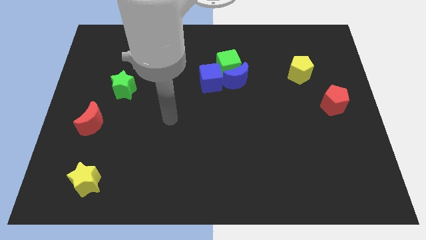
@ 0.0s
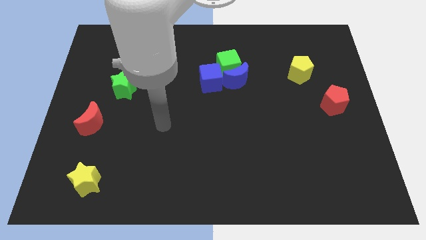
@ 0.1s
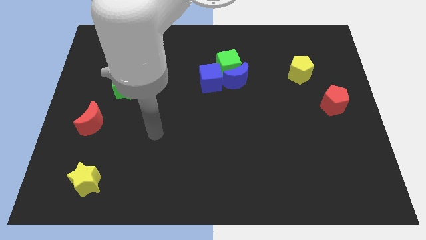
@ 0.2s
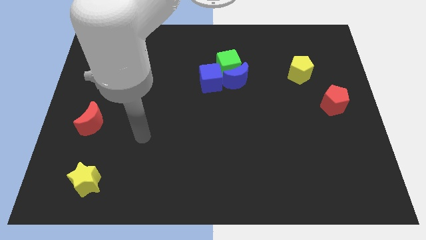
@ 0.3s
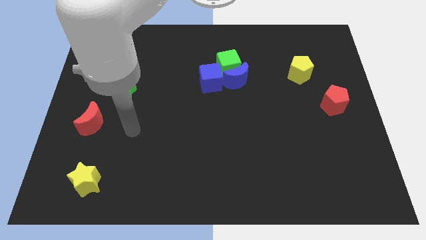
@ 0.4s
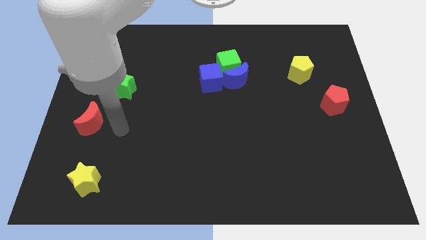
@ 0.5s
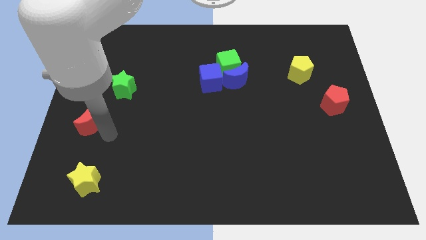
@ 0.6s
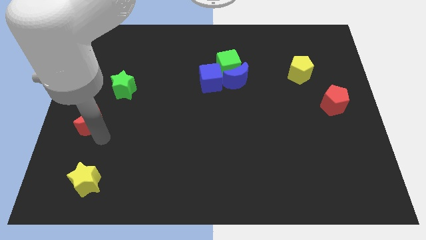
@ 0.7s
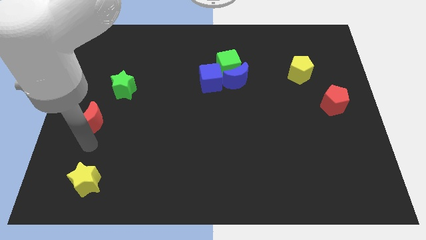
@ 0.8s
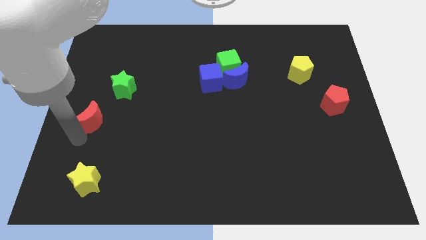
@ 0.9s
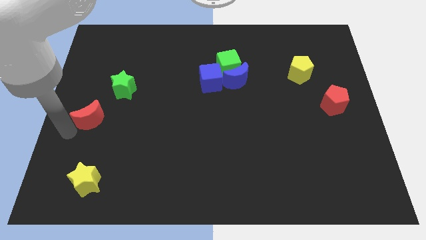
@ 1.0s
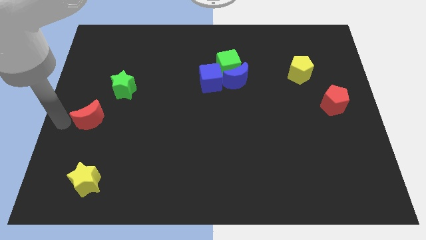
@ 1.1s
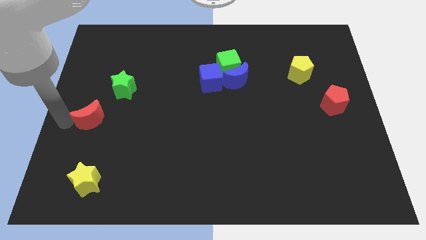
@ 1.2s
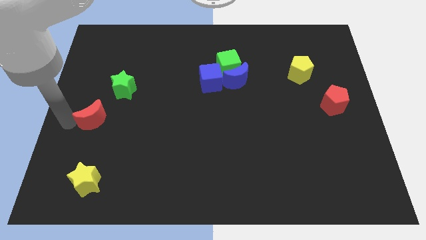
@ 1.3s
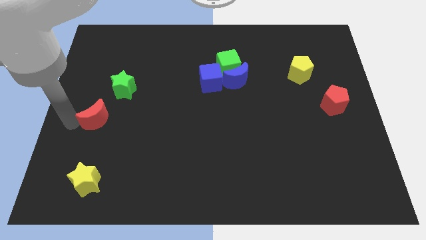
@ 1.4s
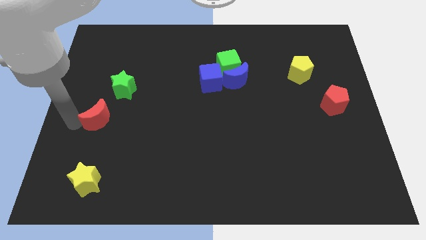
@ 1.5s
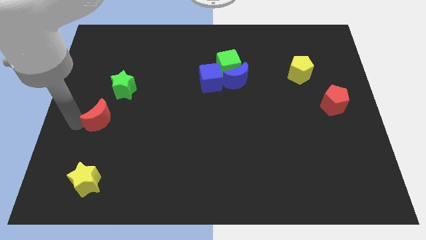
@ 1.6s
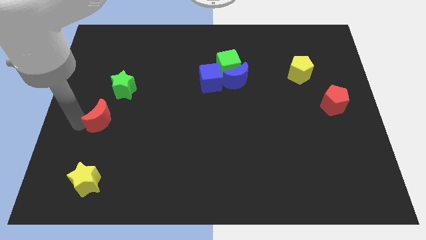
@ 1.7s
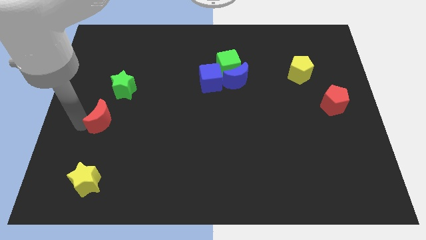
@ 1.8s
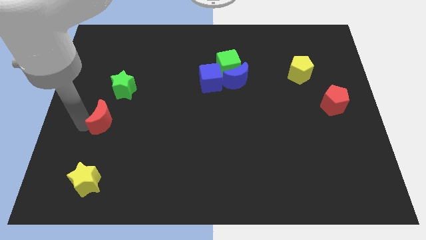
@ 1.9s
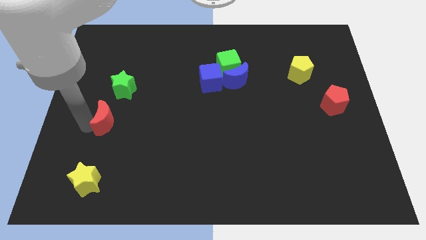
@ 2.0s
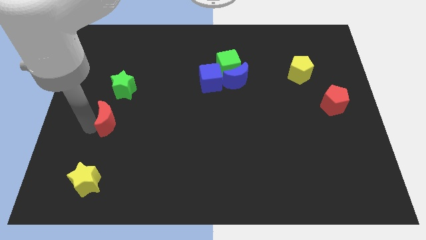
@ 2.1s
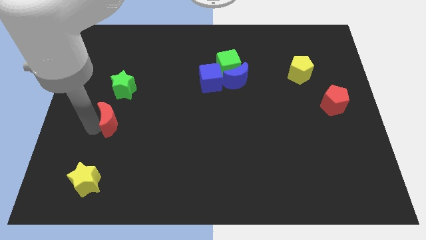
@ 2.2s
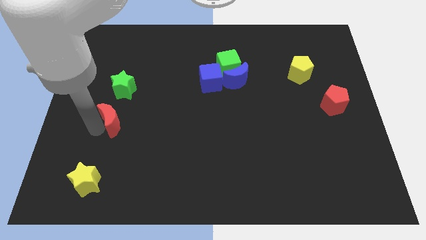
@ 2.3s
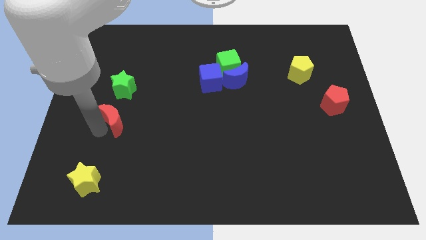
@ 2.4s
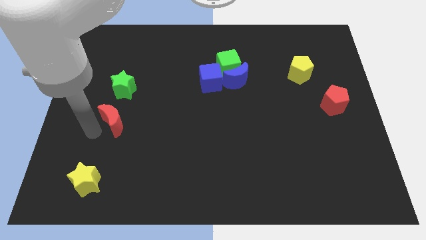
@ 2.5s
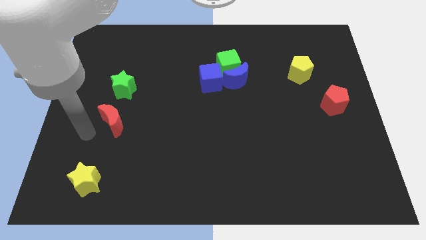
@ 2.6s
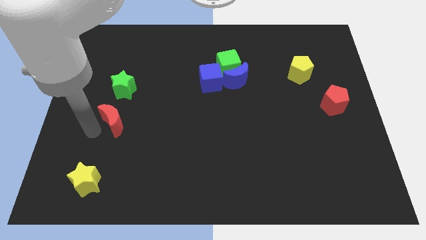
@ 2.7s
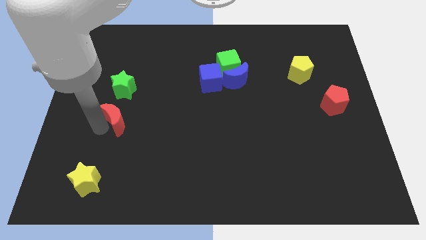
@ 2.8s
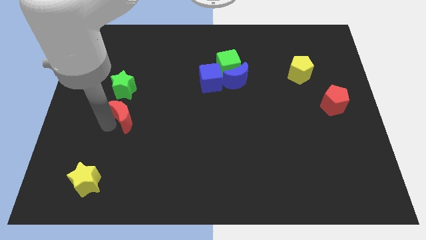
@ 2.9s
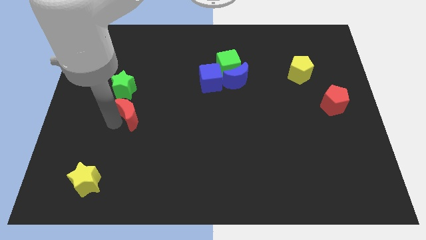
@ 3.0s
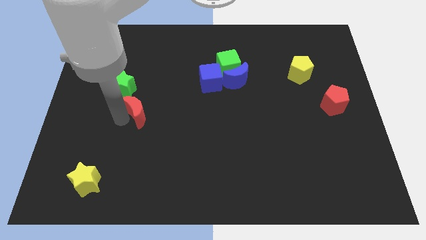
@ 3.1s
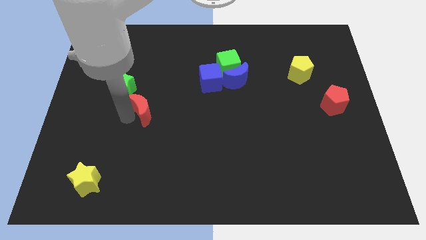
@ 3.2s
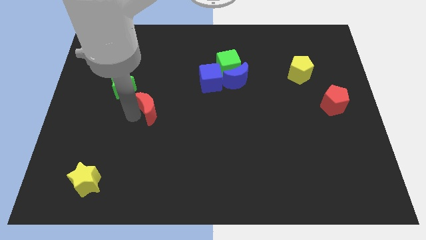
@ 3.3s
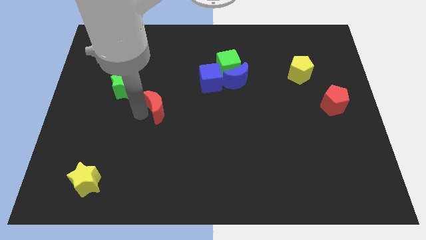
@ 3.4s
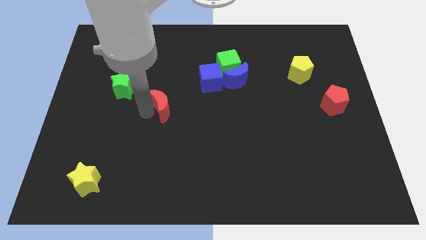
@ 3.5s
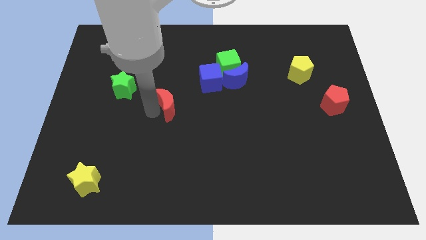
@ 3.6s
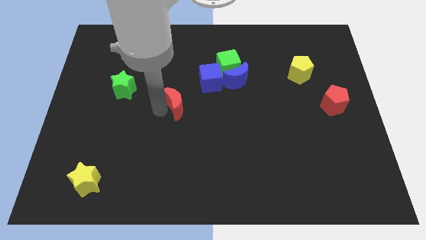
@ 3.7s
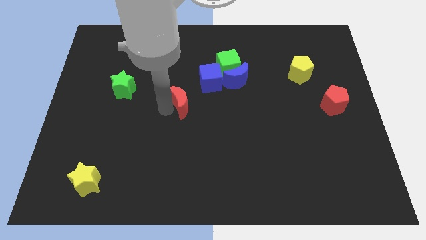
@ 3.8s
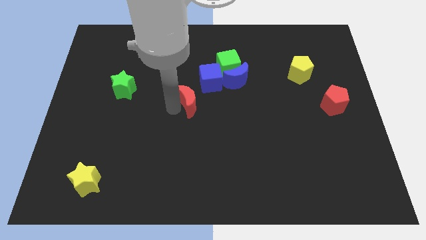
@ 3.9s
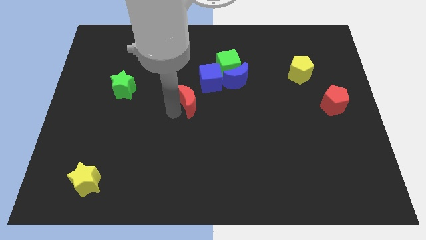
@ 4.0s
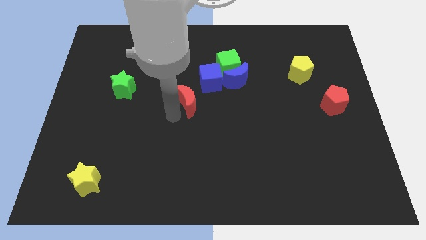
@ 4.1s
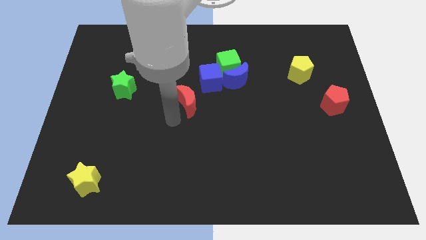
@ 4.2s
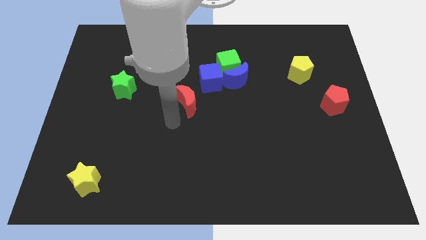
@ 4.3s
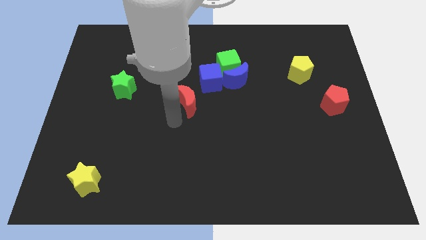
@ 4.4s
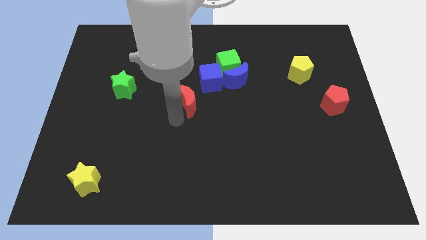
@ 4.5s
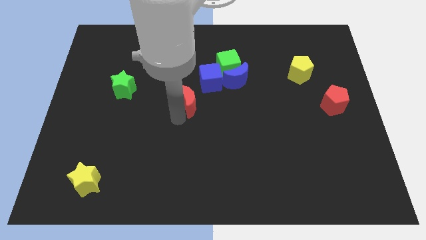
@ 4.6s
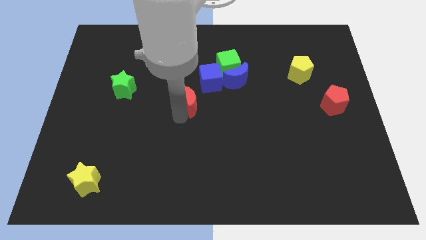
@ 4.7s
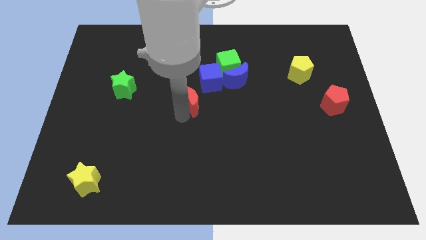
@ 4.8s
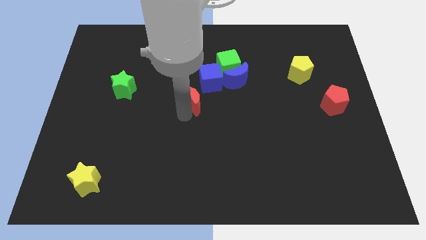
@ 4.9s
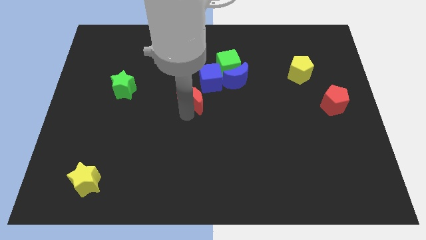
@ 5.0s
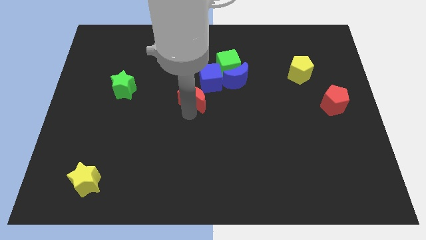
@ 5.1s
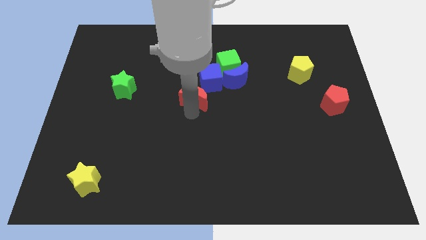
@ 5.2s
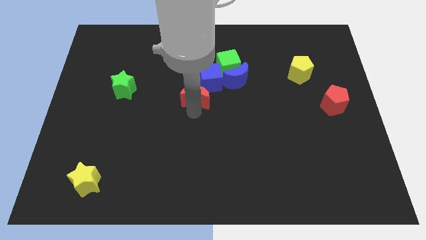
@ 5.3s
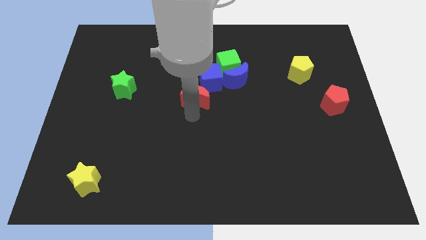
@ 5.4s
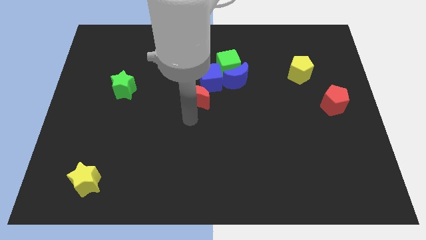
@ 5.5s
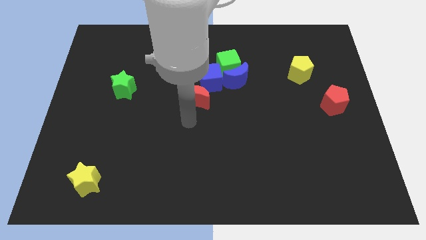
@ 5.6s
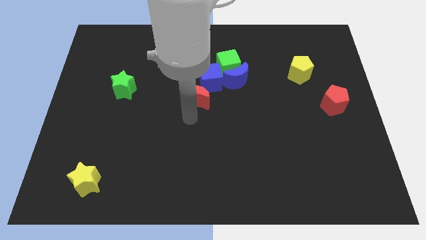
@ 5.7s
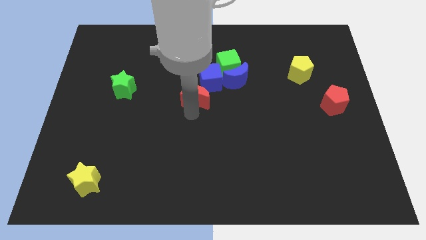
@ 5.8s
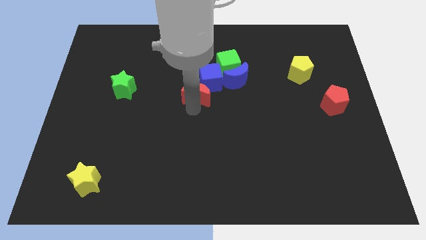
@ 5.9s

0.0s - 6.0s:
put the red moon towards the blue cube

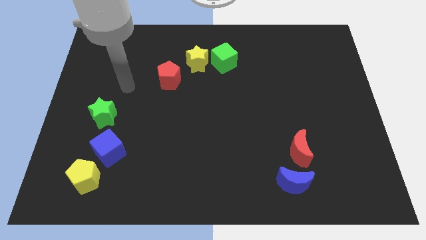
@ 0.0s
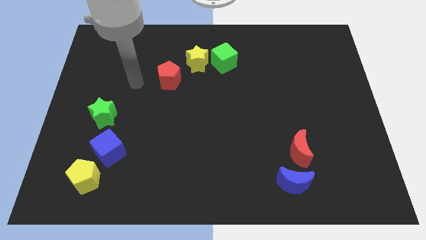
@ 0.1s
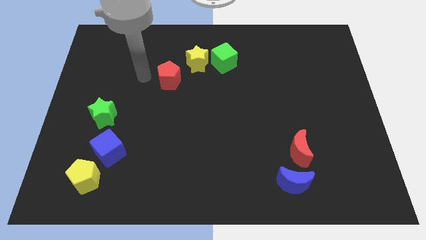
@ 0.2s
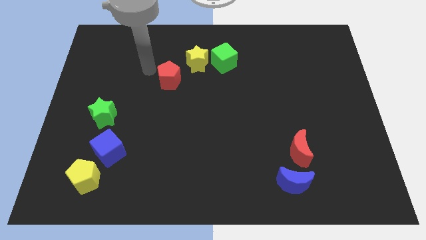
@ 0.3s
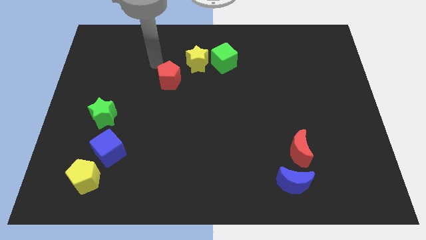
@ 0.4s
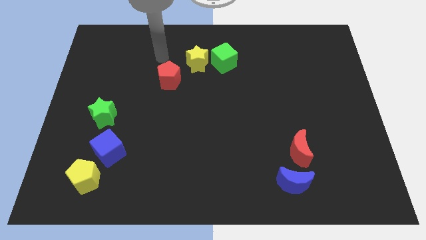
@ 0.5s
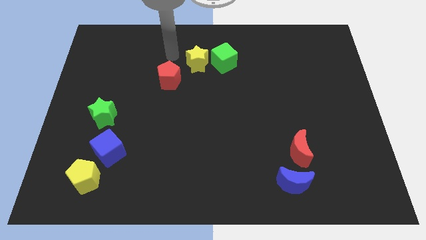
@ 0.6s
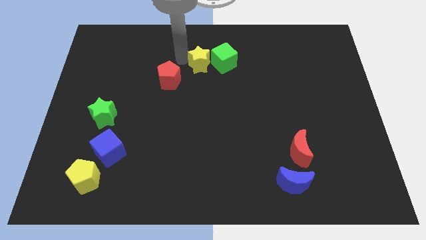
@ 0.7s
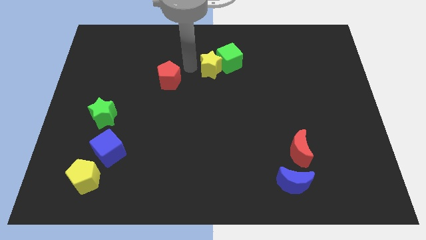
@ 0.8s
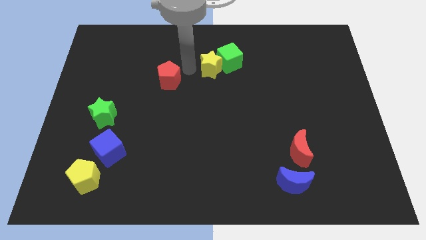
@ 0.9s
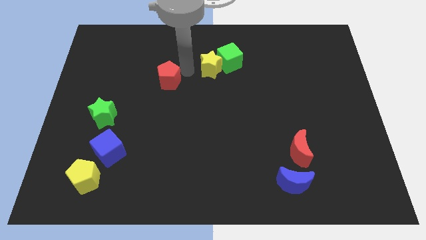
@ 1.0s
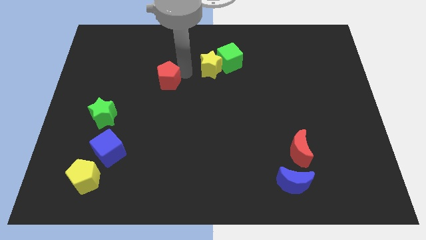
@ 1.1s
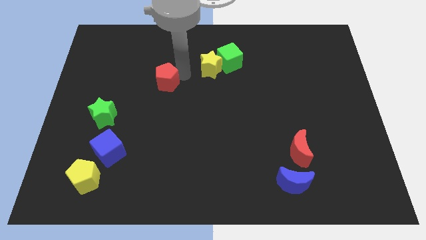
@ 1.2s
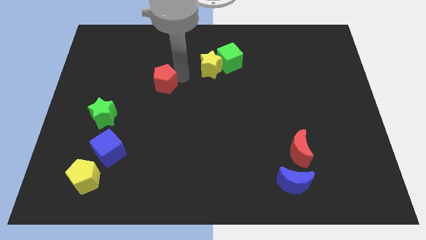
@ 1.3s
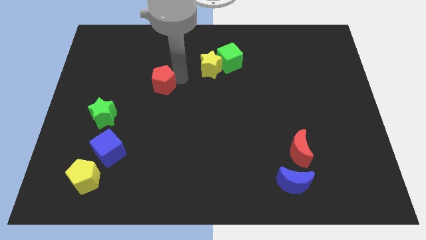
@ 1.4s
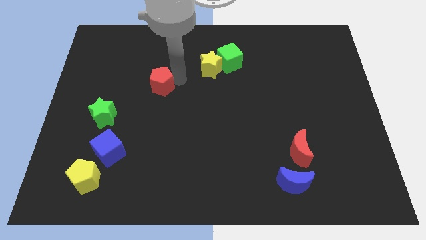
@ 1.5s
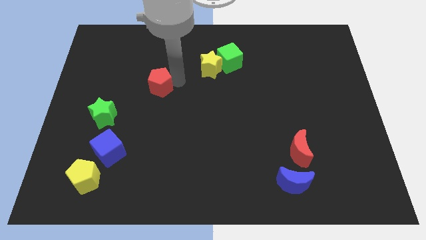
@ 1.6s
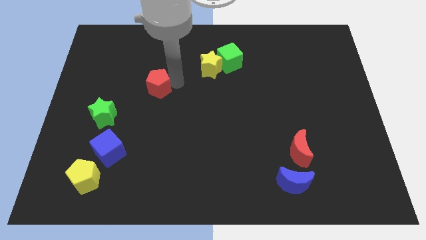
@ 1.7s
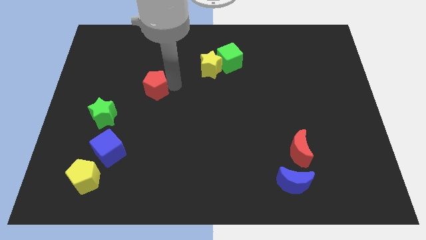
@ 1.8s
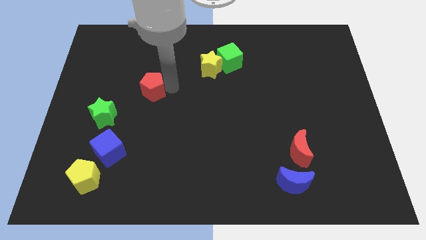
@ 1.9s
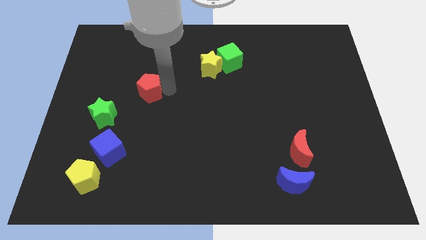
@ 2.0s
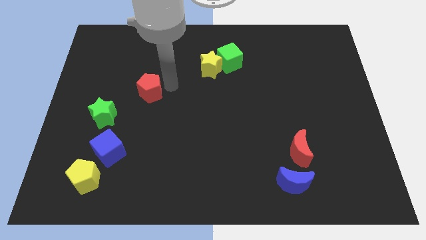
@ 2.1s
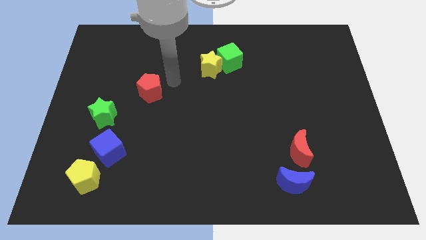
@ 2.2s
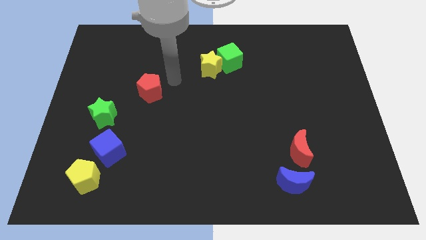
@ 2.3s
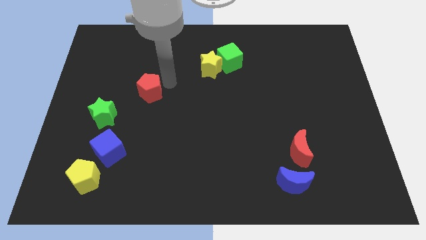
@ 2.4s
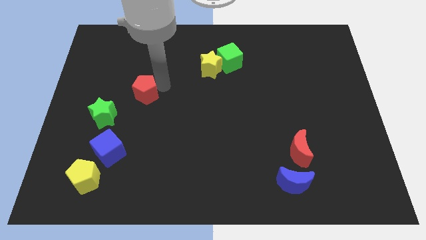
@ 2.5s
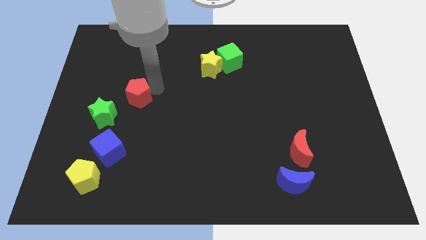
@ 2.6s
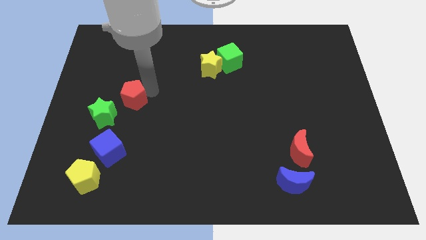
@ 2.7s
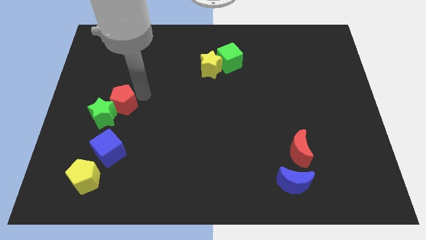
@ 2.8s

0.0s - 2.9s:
slide the red pentagon to the green star
